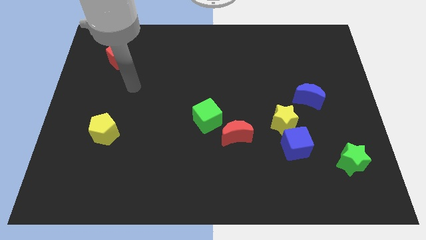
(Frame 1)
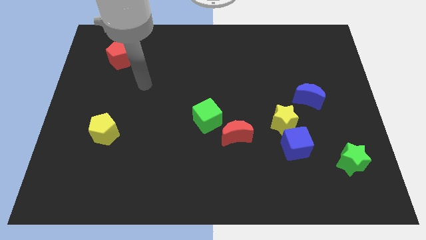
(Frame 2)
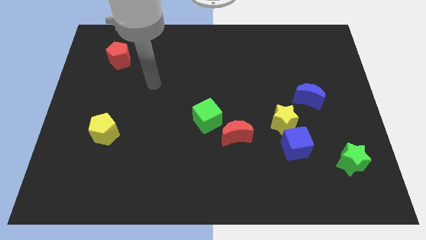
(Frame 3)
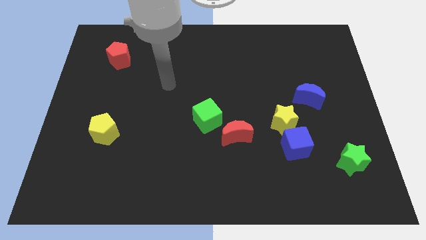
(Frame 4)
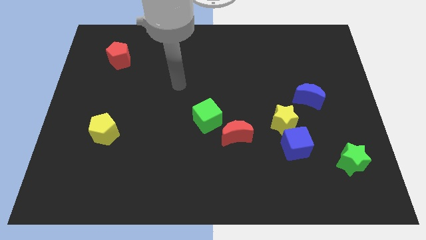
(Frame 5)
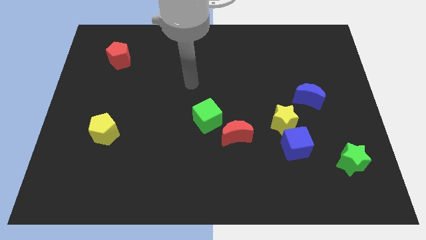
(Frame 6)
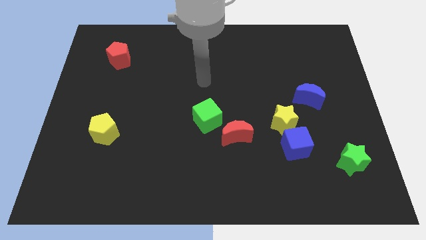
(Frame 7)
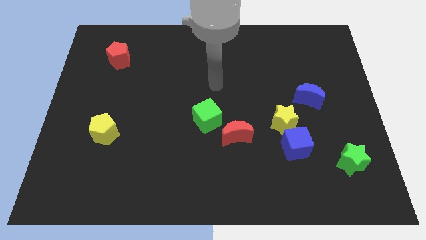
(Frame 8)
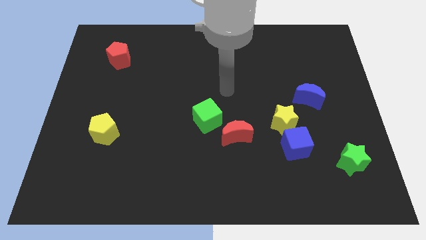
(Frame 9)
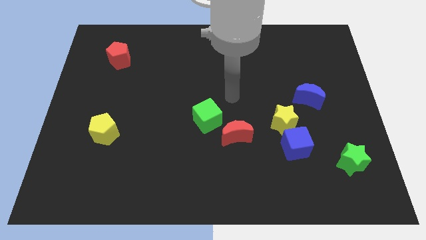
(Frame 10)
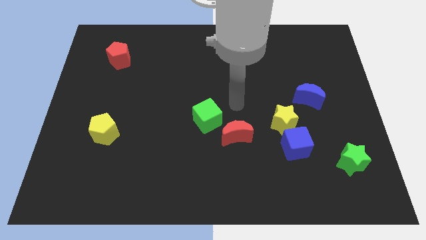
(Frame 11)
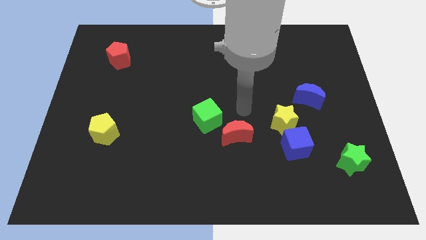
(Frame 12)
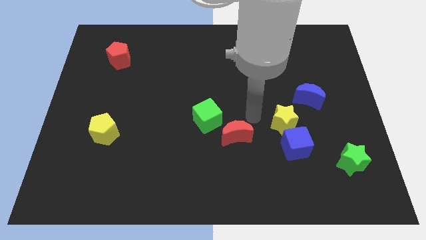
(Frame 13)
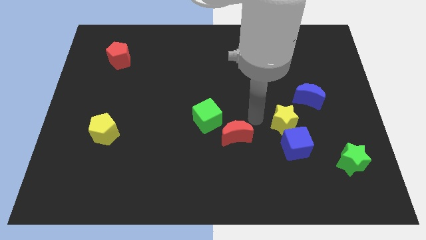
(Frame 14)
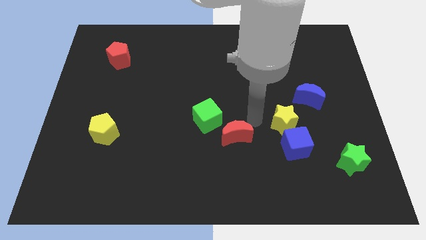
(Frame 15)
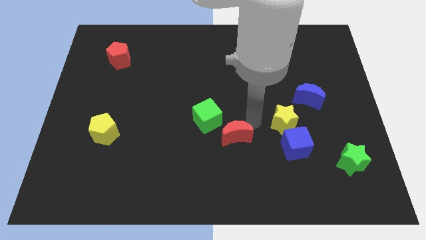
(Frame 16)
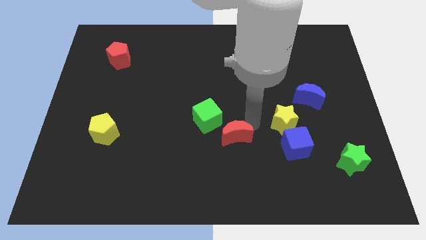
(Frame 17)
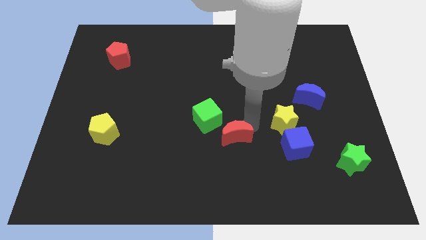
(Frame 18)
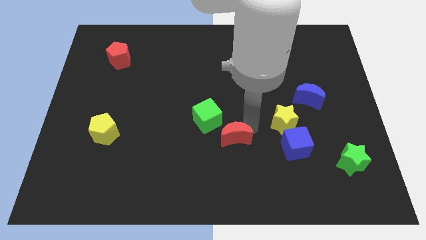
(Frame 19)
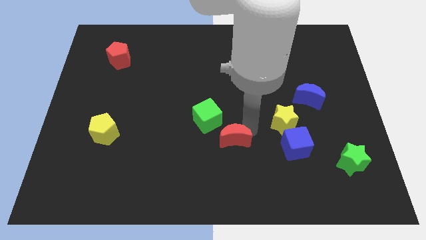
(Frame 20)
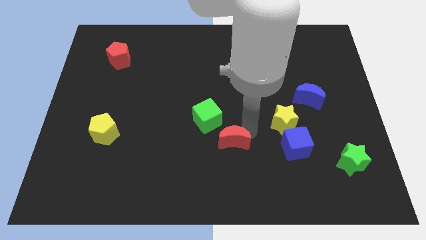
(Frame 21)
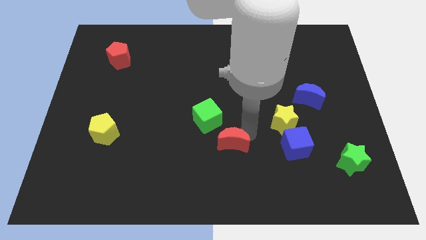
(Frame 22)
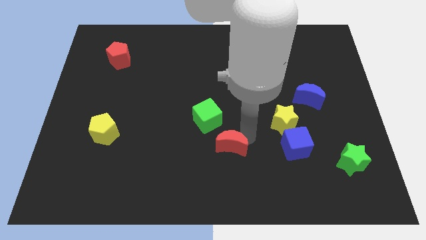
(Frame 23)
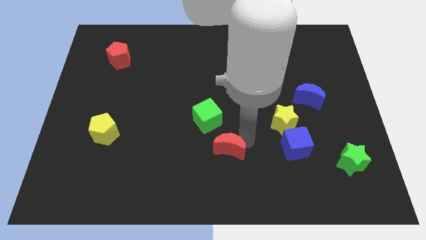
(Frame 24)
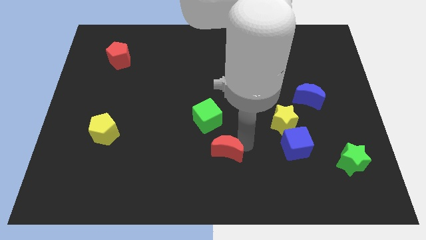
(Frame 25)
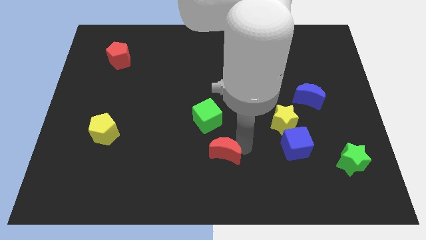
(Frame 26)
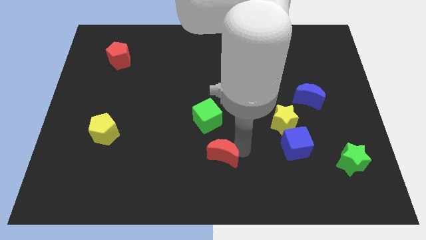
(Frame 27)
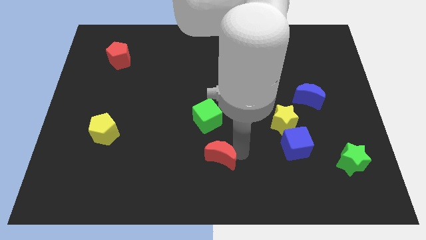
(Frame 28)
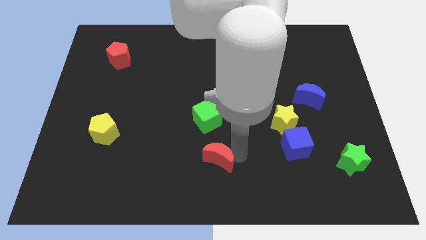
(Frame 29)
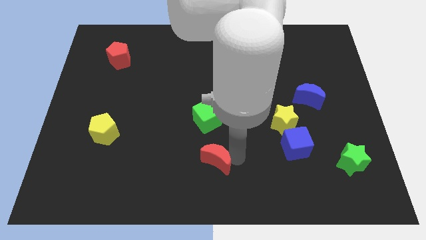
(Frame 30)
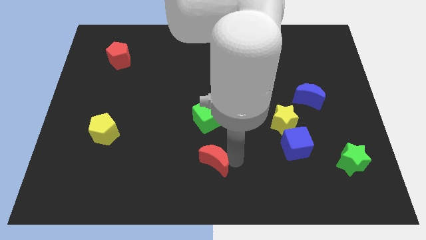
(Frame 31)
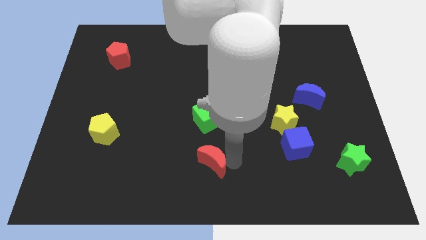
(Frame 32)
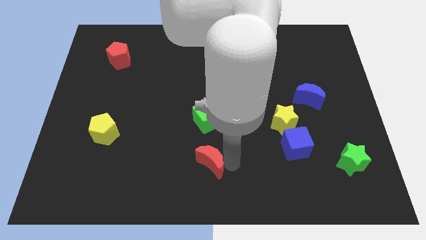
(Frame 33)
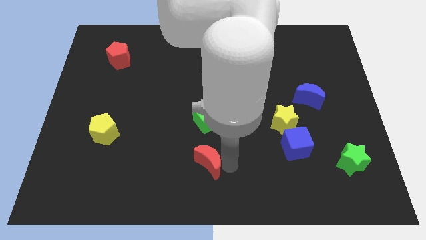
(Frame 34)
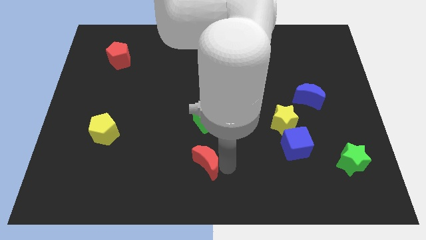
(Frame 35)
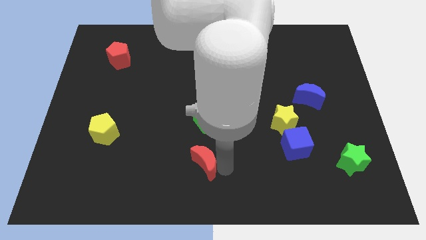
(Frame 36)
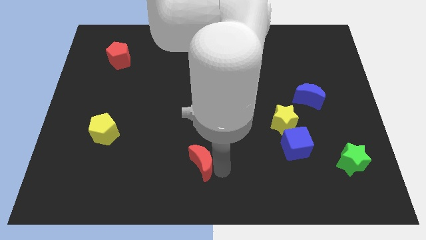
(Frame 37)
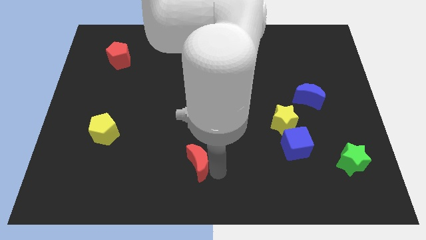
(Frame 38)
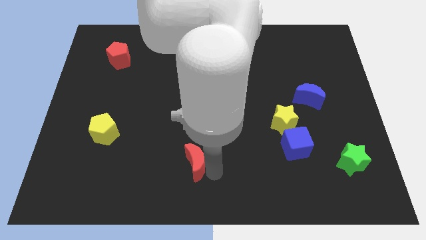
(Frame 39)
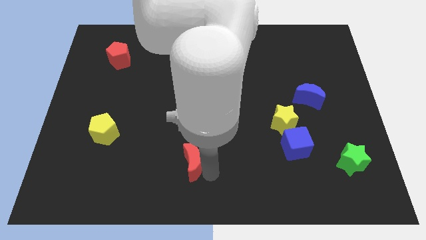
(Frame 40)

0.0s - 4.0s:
slightly push the red moon left

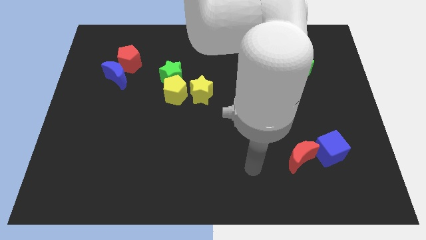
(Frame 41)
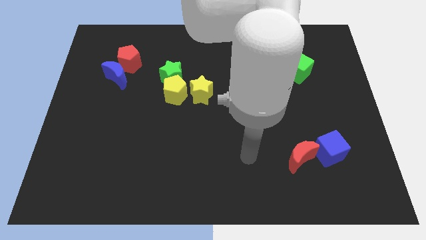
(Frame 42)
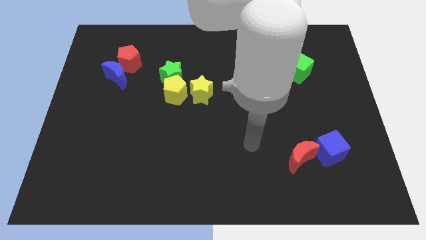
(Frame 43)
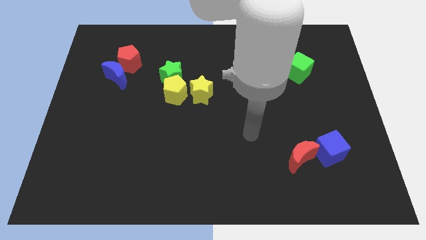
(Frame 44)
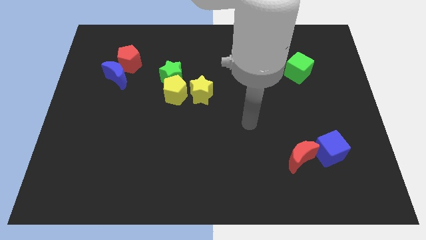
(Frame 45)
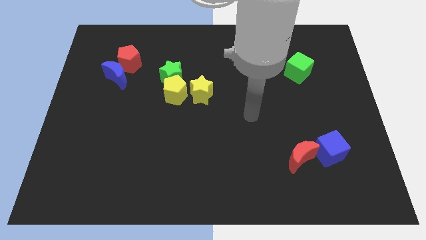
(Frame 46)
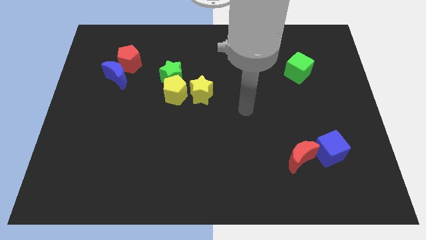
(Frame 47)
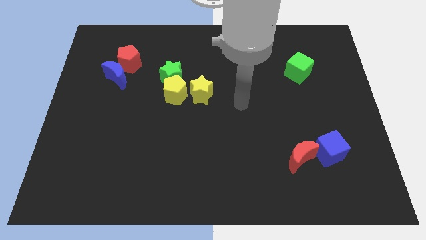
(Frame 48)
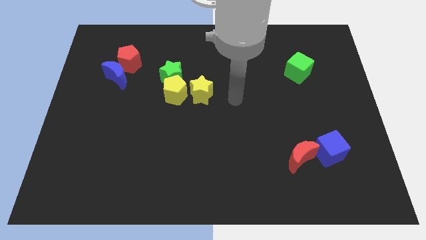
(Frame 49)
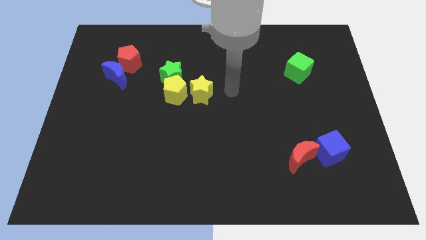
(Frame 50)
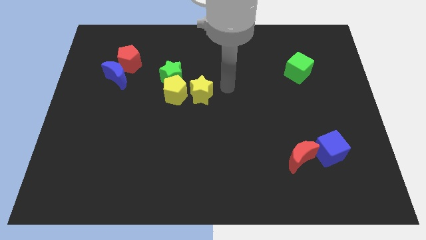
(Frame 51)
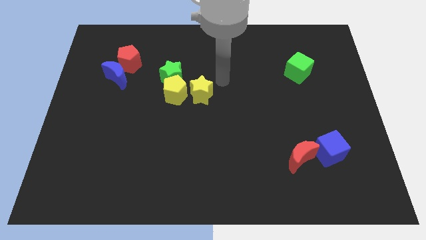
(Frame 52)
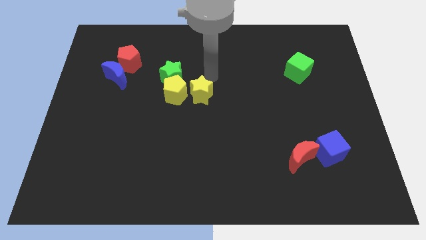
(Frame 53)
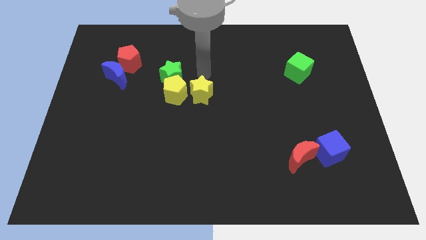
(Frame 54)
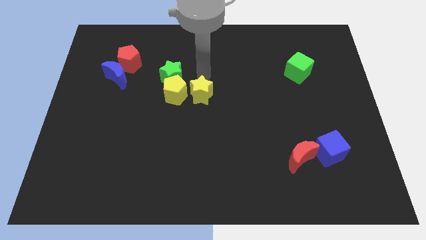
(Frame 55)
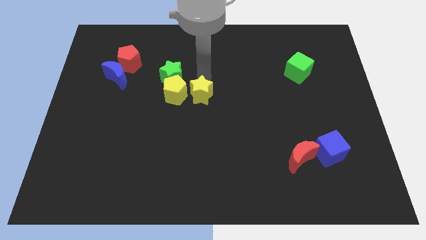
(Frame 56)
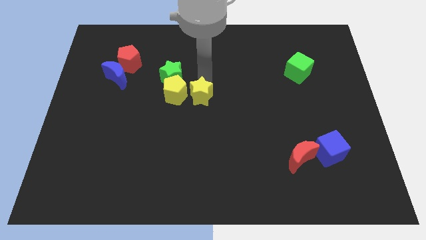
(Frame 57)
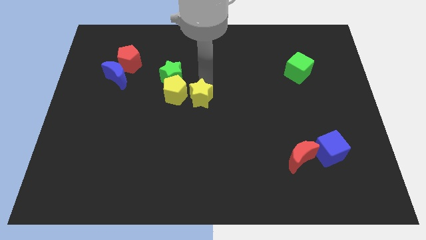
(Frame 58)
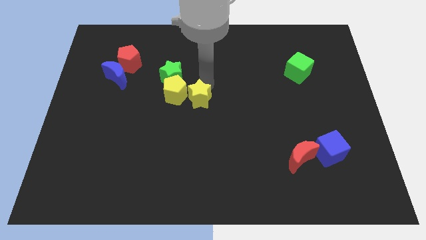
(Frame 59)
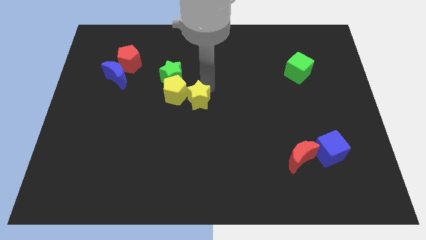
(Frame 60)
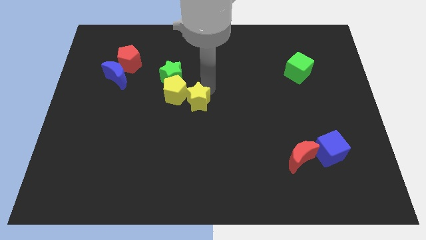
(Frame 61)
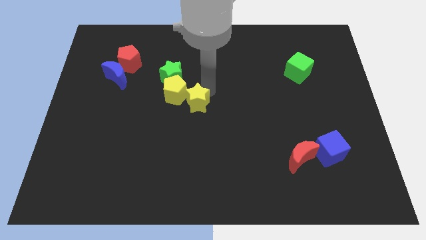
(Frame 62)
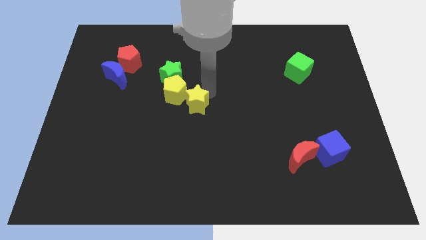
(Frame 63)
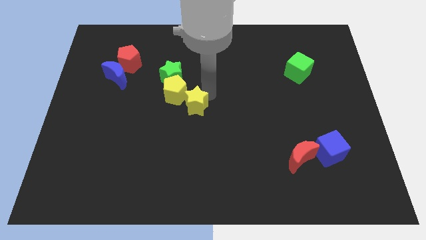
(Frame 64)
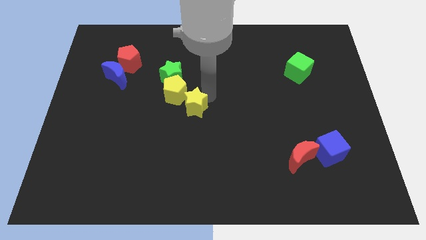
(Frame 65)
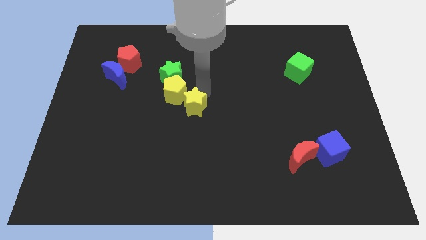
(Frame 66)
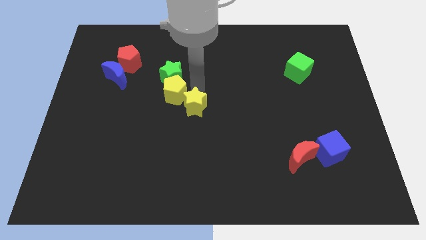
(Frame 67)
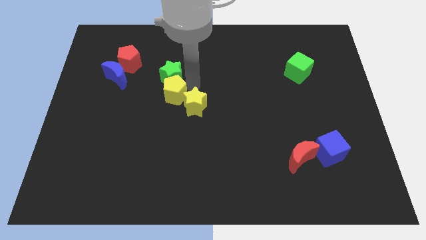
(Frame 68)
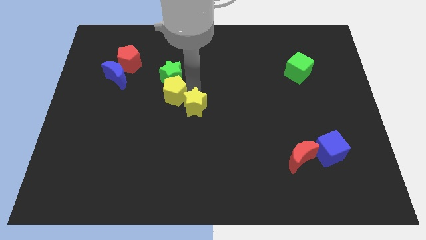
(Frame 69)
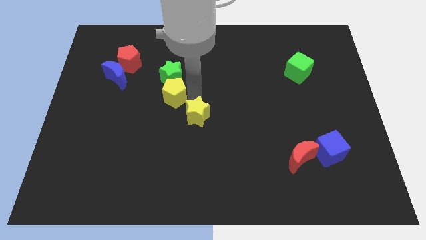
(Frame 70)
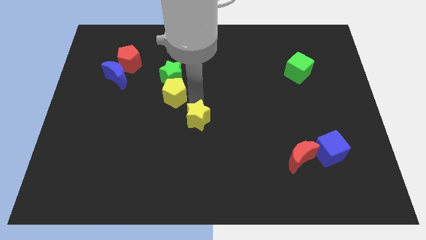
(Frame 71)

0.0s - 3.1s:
move the yellow star down somewhat

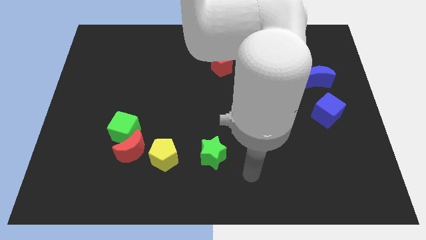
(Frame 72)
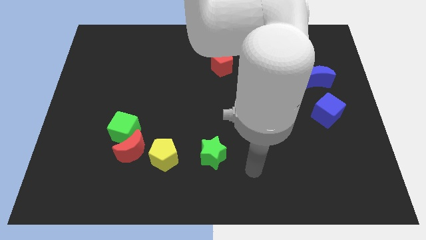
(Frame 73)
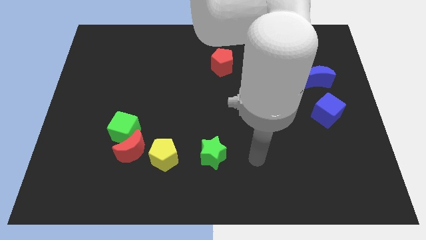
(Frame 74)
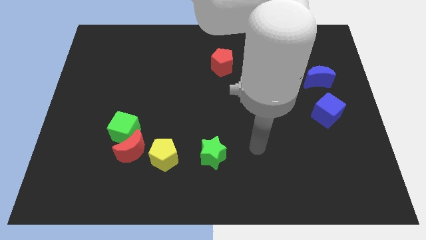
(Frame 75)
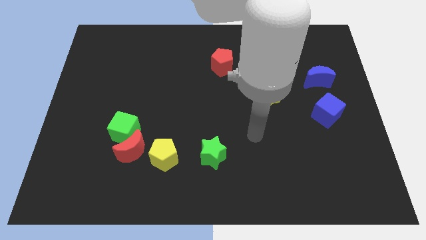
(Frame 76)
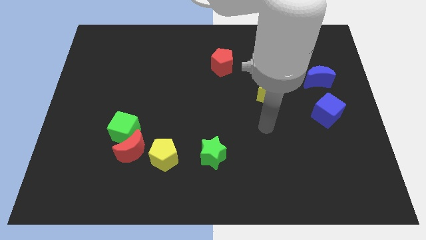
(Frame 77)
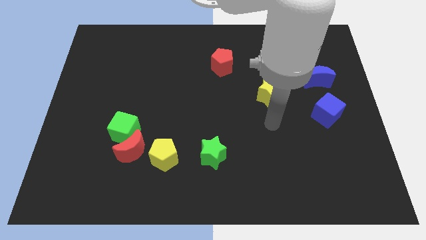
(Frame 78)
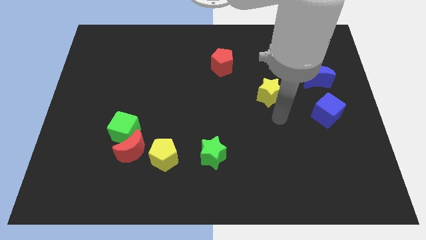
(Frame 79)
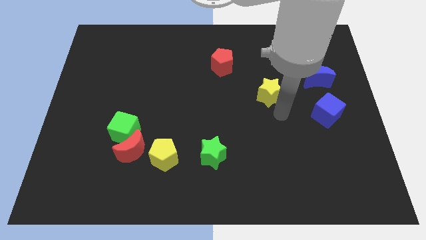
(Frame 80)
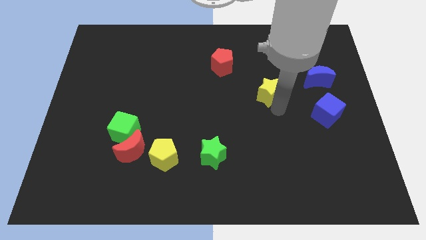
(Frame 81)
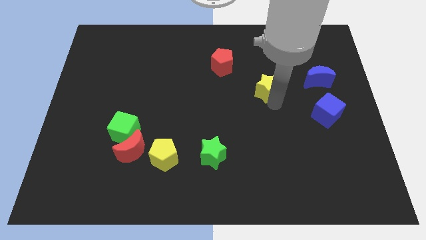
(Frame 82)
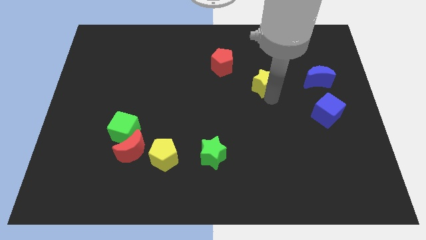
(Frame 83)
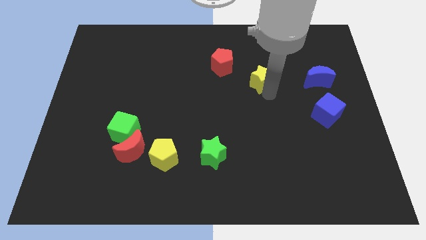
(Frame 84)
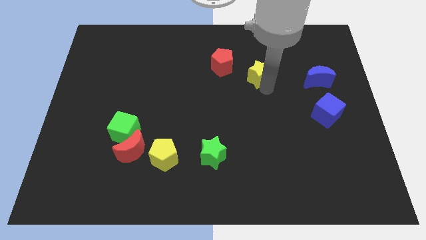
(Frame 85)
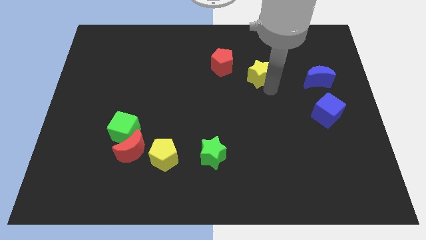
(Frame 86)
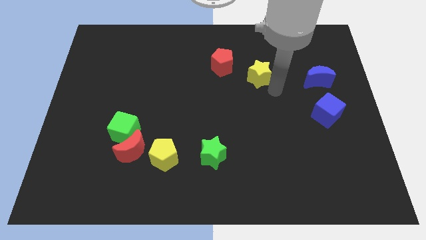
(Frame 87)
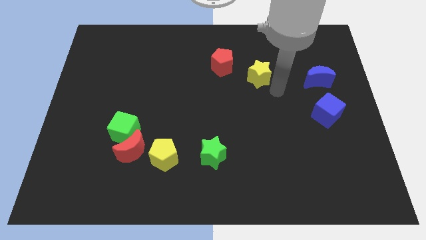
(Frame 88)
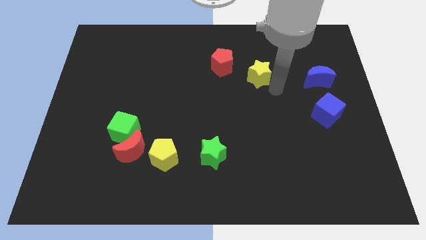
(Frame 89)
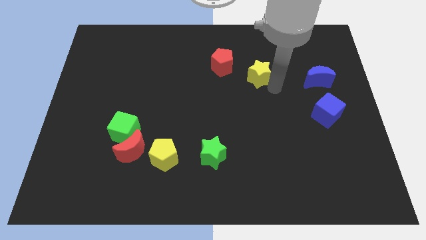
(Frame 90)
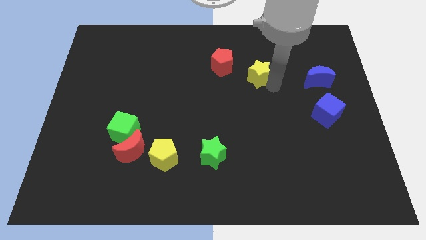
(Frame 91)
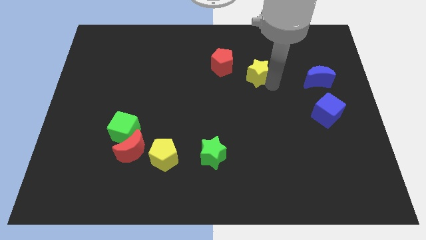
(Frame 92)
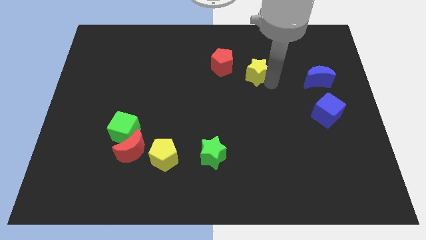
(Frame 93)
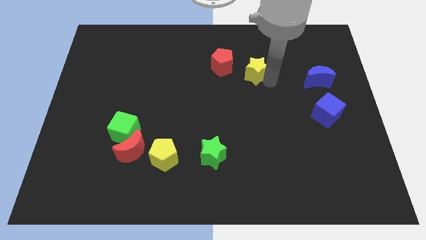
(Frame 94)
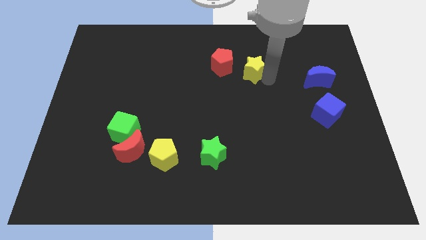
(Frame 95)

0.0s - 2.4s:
slightly slide the yellow star upwards and to the left
